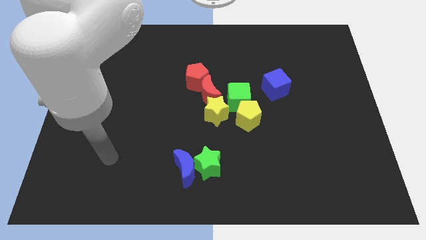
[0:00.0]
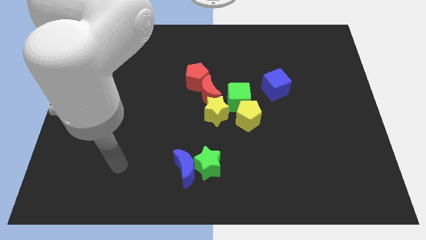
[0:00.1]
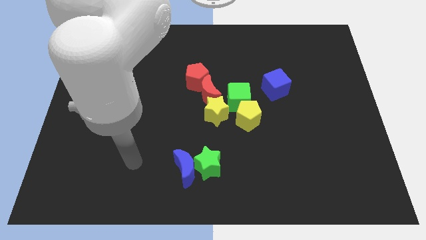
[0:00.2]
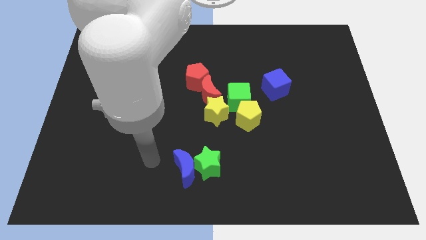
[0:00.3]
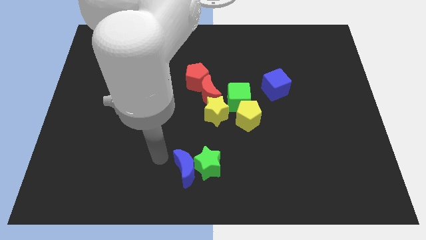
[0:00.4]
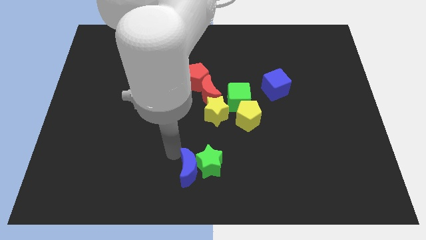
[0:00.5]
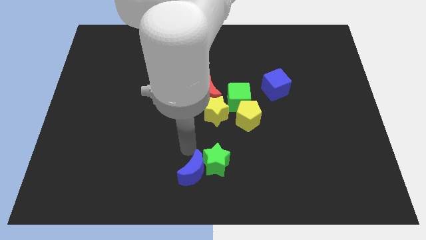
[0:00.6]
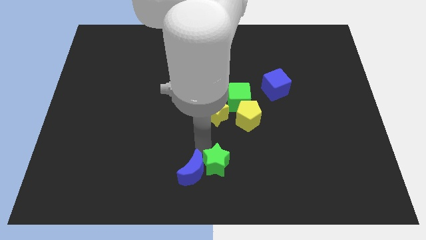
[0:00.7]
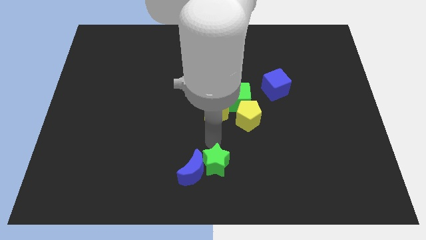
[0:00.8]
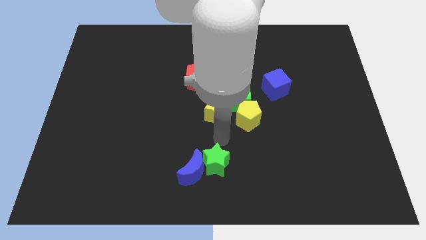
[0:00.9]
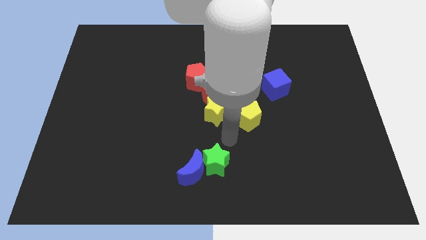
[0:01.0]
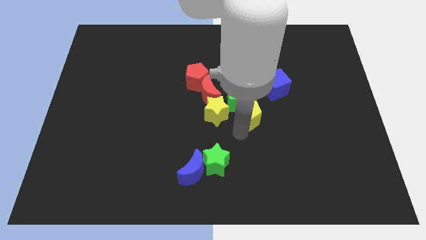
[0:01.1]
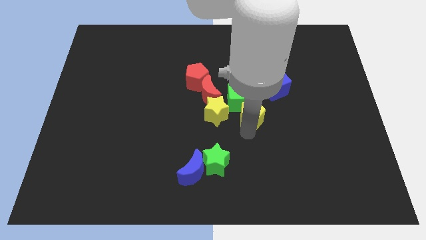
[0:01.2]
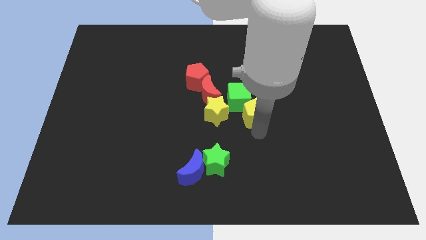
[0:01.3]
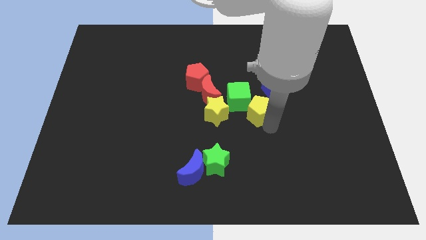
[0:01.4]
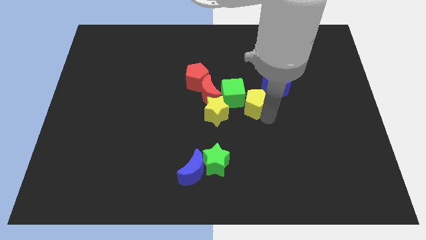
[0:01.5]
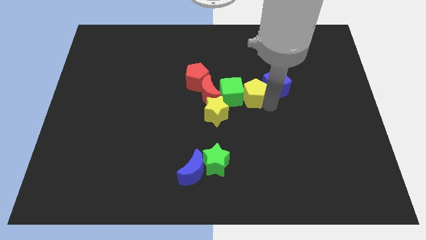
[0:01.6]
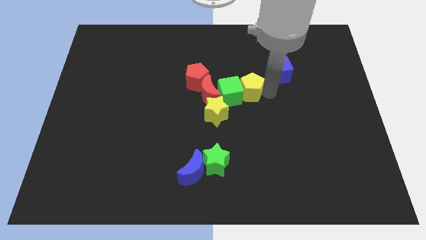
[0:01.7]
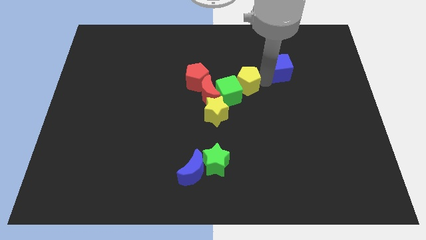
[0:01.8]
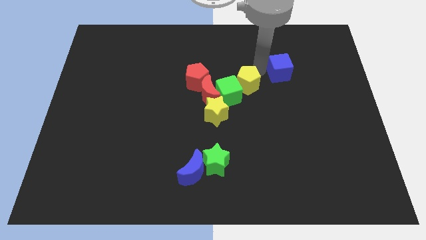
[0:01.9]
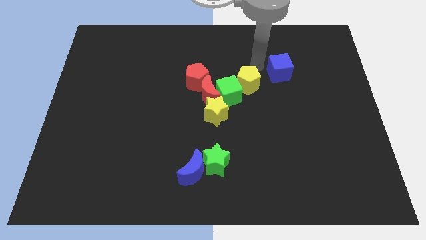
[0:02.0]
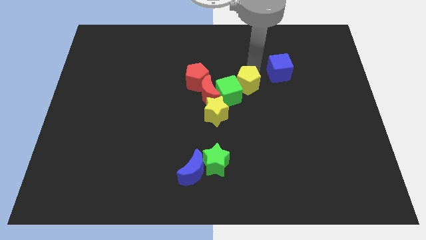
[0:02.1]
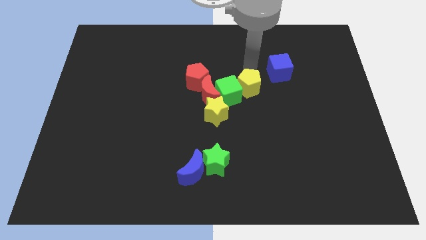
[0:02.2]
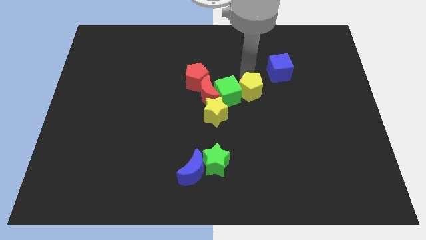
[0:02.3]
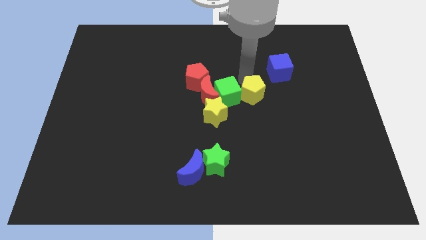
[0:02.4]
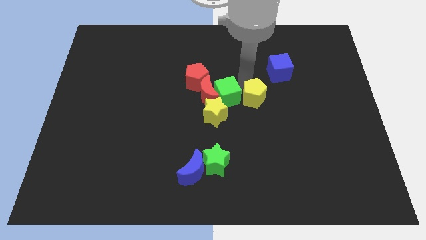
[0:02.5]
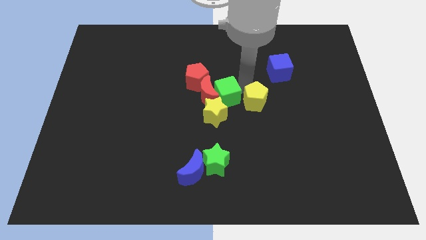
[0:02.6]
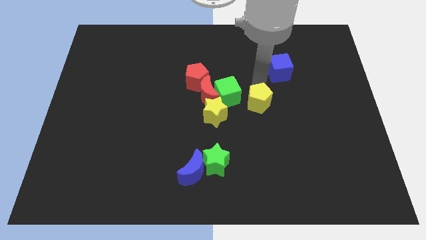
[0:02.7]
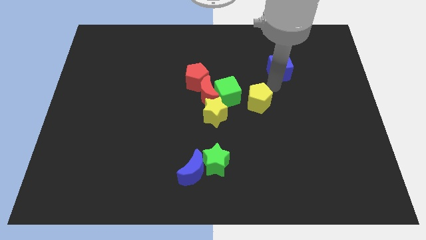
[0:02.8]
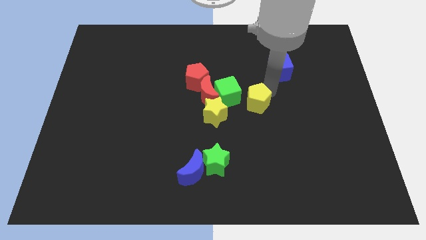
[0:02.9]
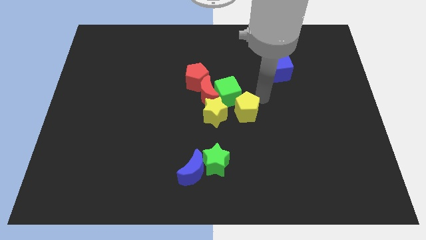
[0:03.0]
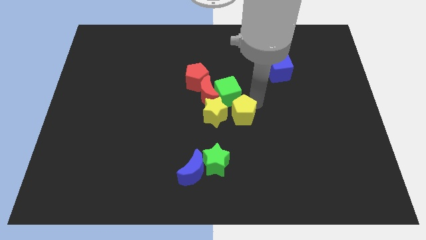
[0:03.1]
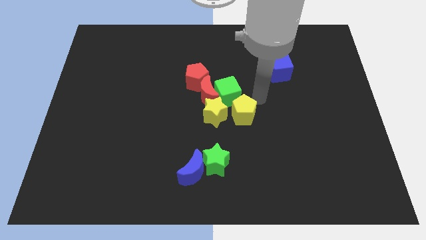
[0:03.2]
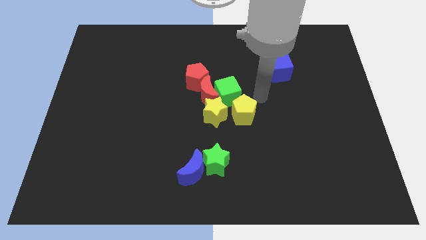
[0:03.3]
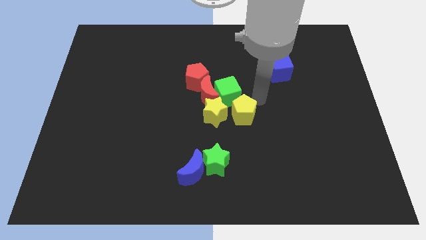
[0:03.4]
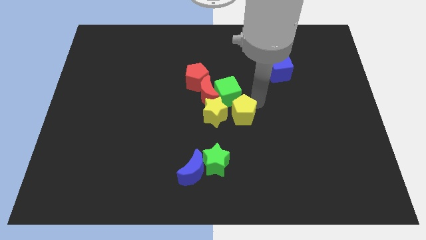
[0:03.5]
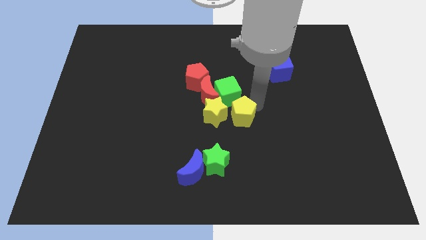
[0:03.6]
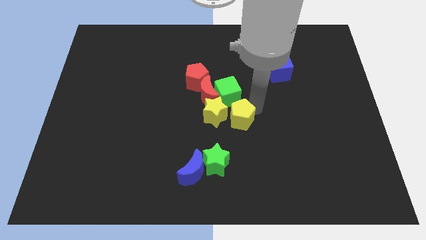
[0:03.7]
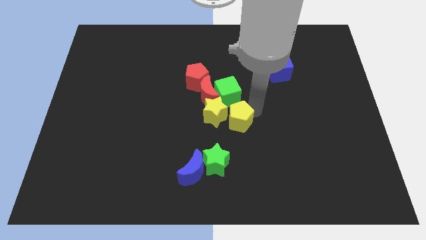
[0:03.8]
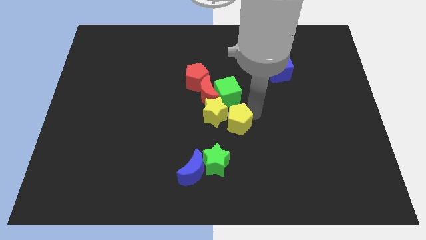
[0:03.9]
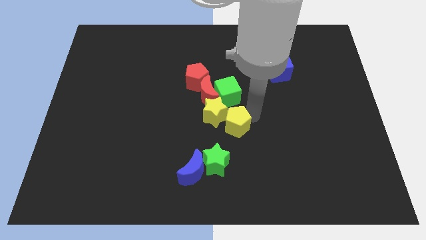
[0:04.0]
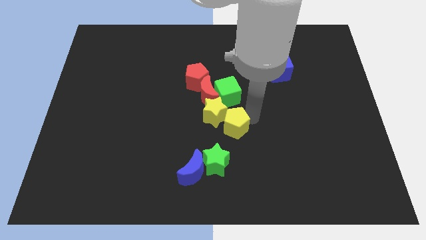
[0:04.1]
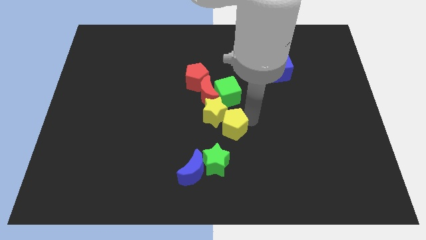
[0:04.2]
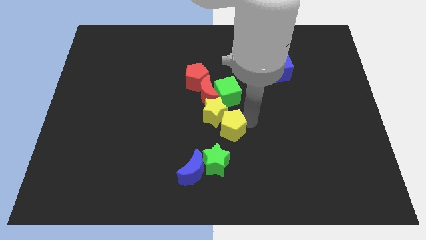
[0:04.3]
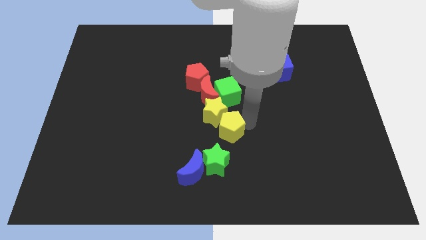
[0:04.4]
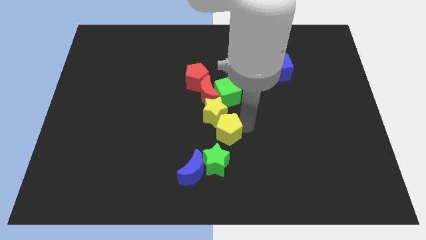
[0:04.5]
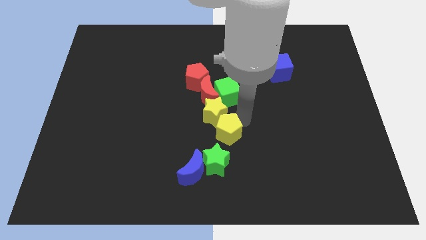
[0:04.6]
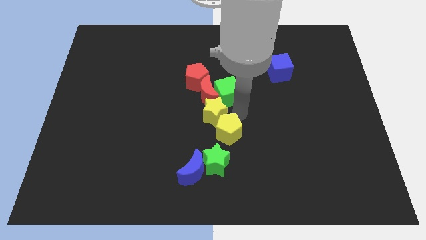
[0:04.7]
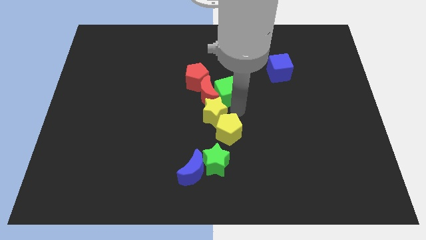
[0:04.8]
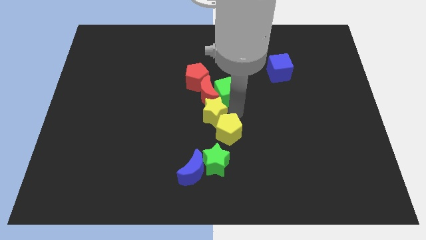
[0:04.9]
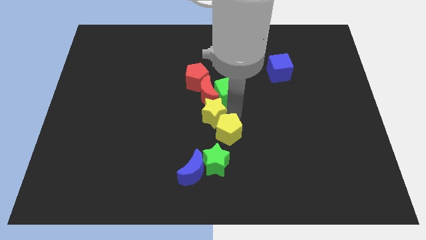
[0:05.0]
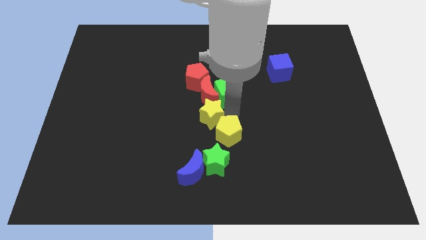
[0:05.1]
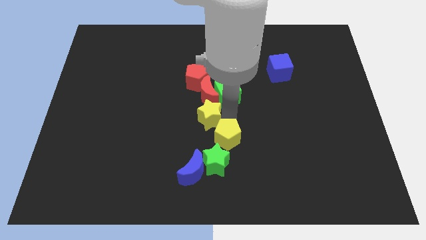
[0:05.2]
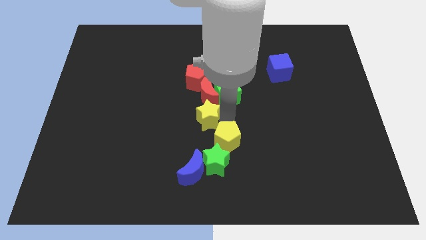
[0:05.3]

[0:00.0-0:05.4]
slide the yellow pentagon to the green star

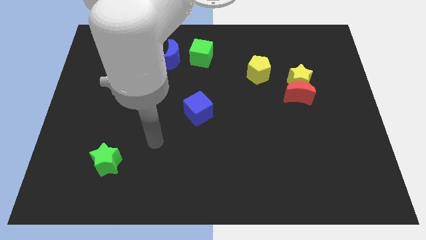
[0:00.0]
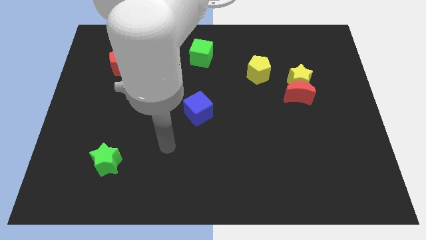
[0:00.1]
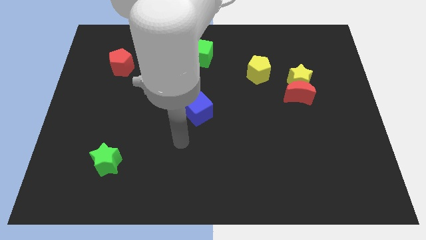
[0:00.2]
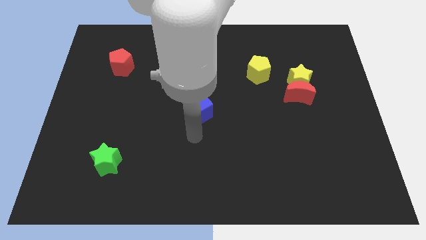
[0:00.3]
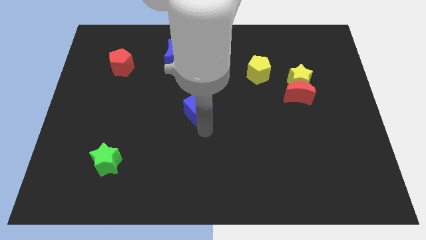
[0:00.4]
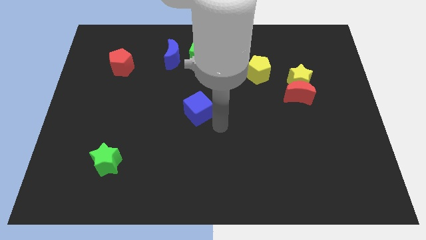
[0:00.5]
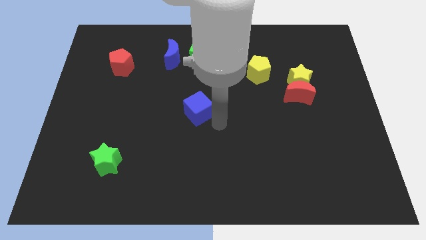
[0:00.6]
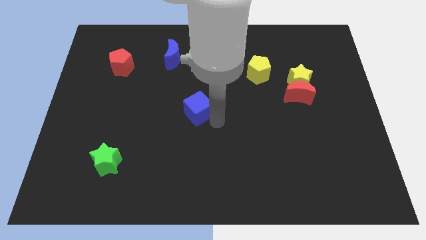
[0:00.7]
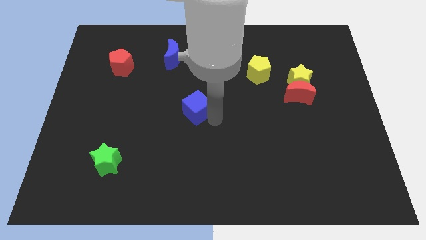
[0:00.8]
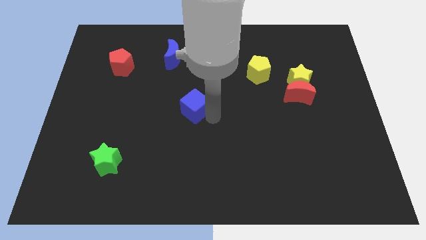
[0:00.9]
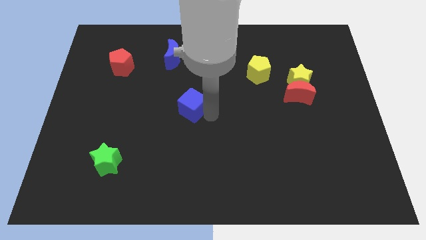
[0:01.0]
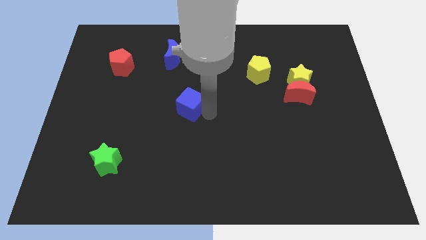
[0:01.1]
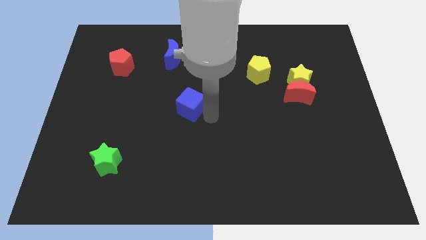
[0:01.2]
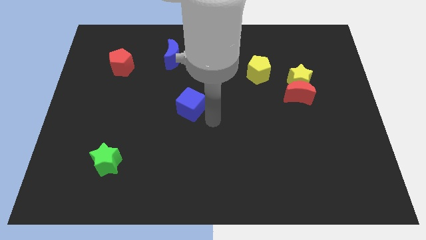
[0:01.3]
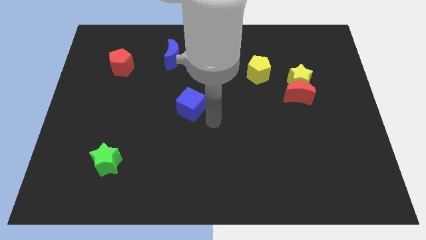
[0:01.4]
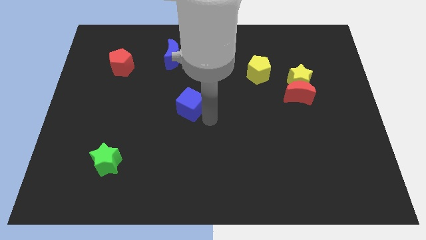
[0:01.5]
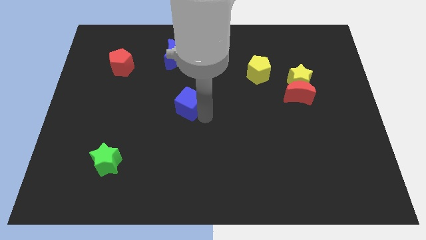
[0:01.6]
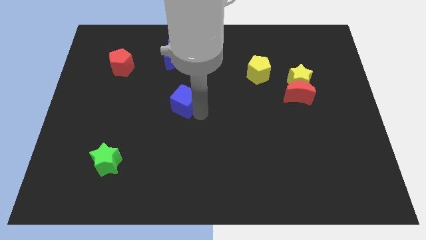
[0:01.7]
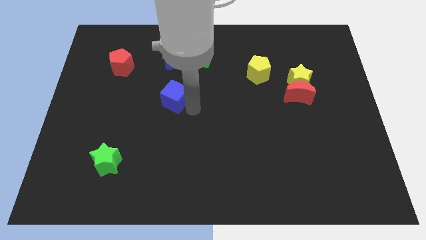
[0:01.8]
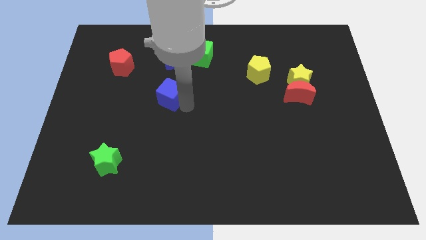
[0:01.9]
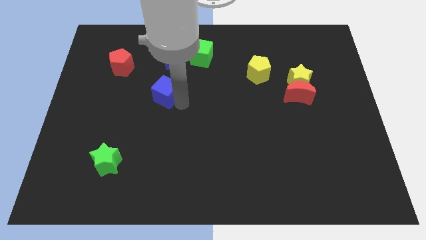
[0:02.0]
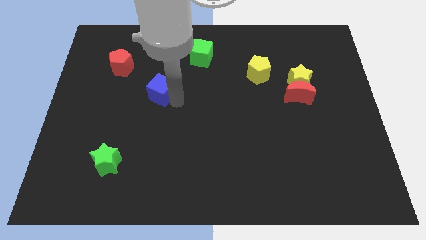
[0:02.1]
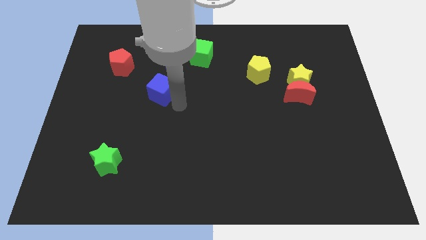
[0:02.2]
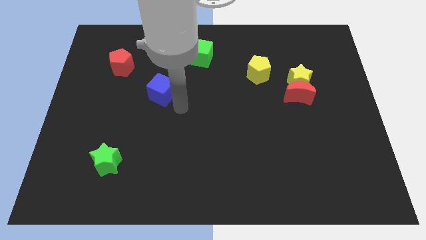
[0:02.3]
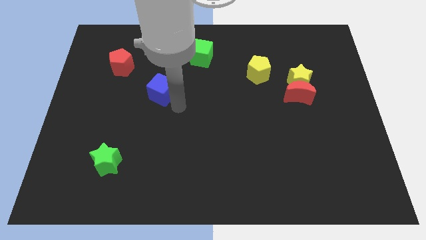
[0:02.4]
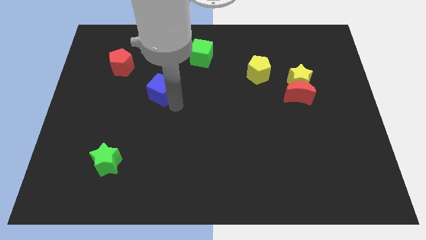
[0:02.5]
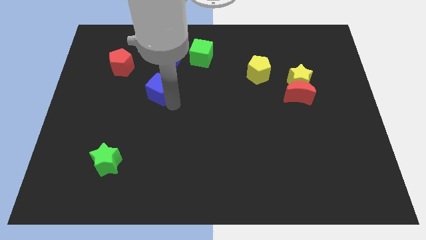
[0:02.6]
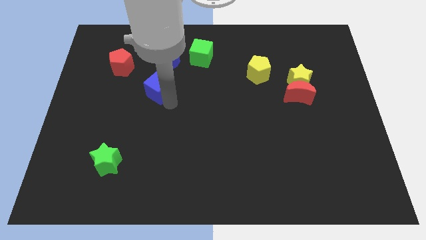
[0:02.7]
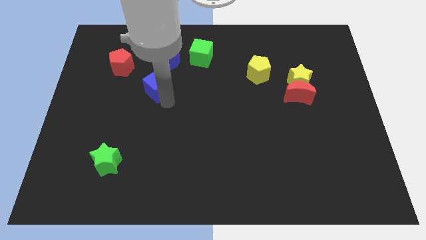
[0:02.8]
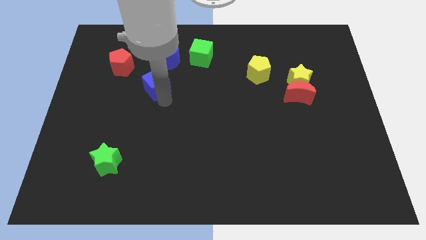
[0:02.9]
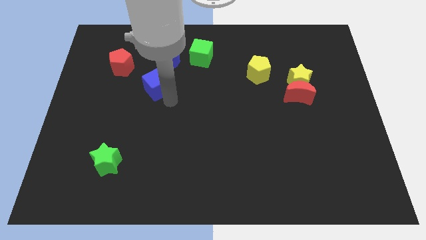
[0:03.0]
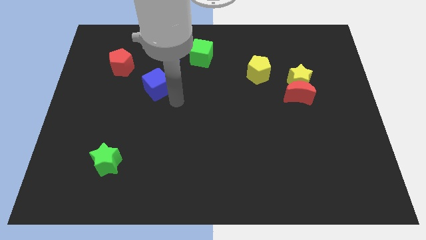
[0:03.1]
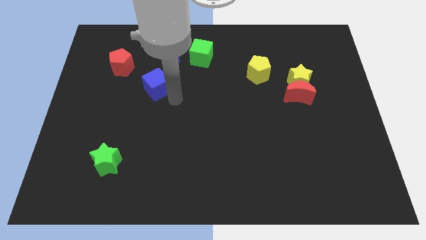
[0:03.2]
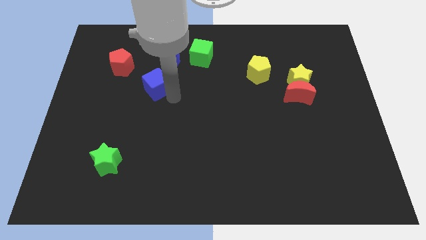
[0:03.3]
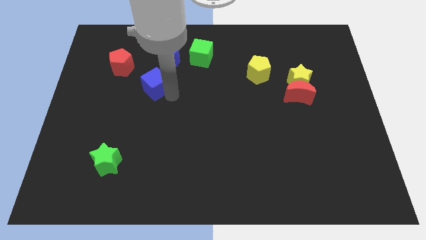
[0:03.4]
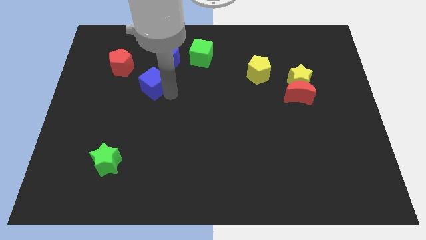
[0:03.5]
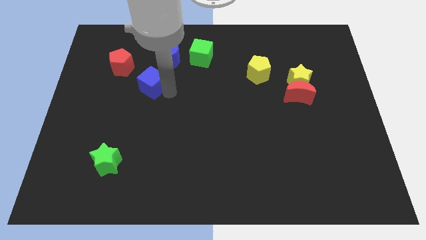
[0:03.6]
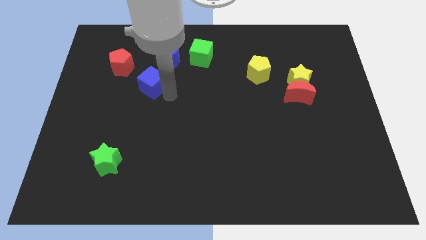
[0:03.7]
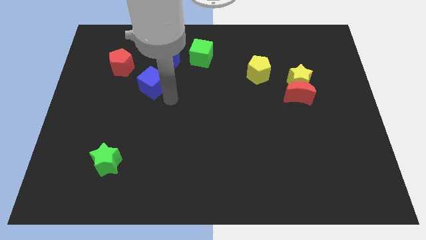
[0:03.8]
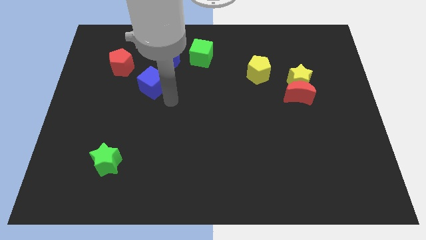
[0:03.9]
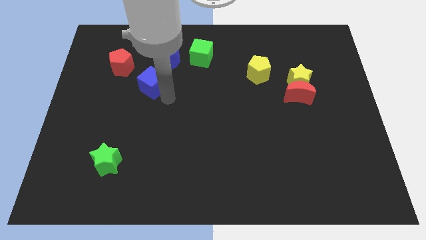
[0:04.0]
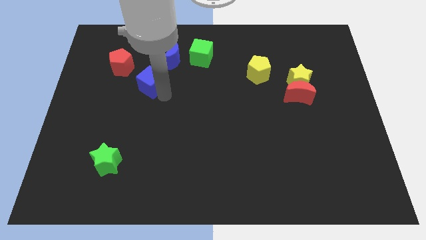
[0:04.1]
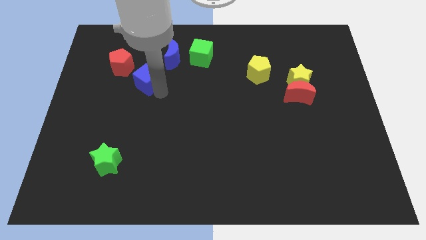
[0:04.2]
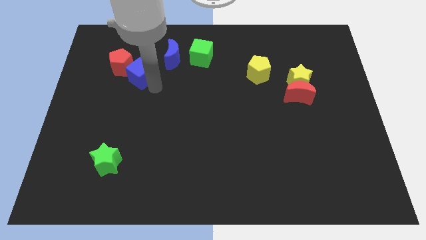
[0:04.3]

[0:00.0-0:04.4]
push the blue cube towards the red pentagon
